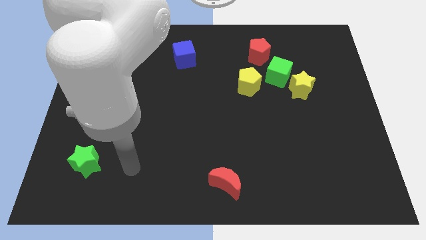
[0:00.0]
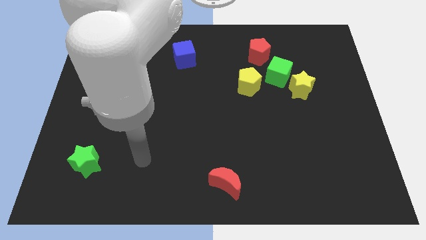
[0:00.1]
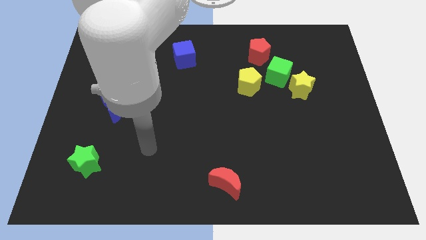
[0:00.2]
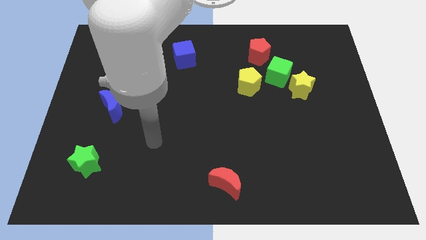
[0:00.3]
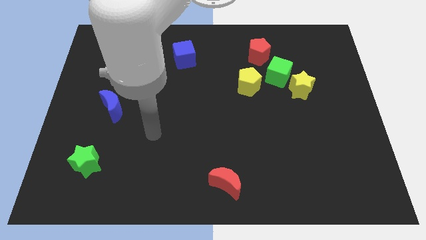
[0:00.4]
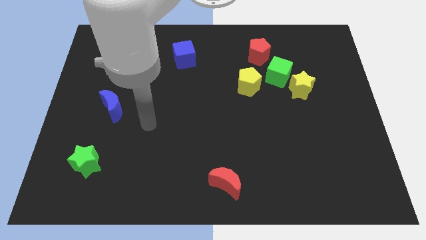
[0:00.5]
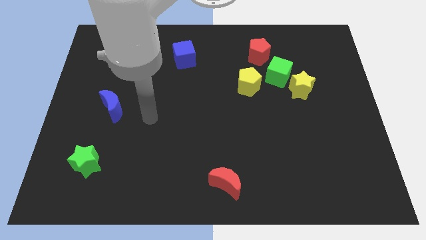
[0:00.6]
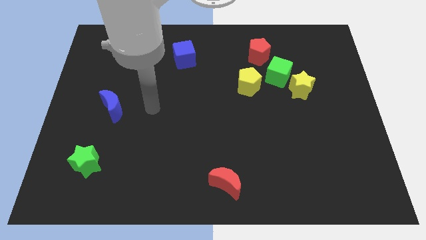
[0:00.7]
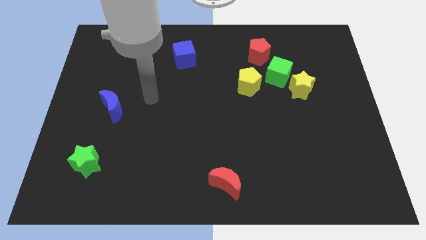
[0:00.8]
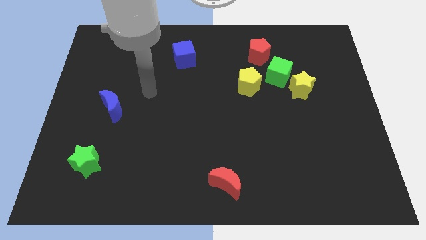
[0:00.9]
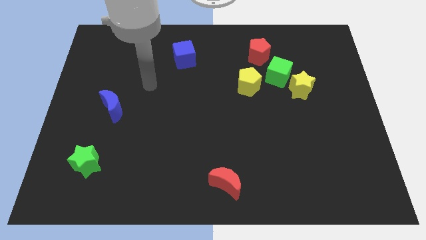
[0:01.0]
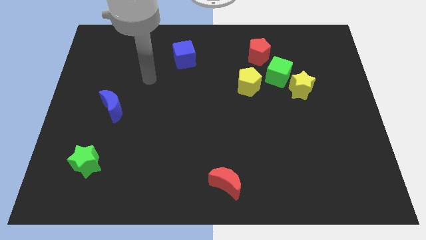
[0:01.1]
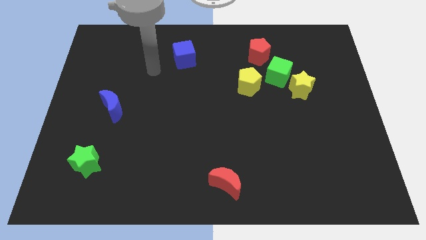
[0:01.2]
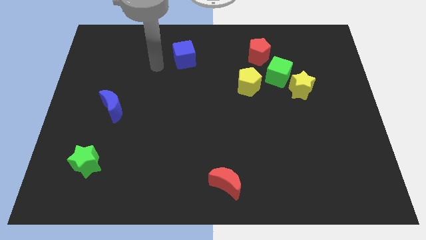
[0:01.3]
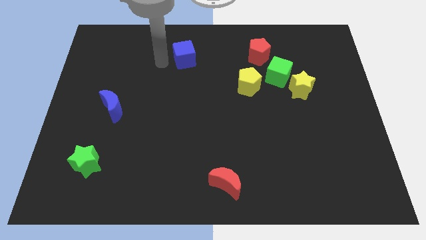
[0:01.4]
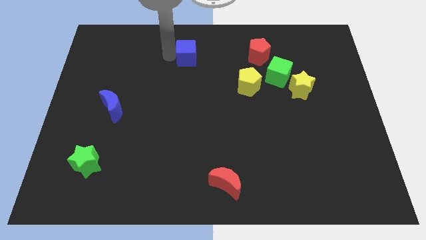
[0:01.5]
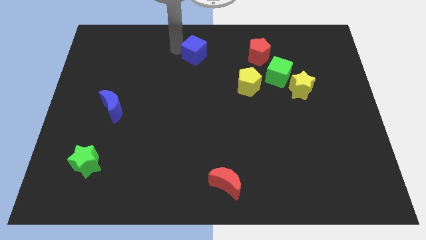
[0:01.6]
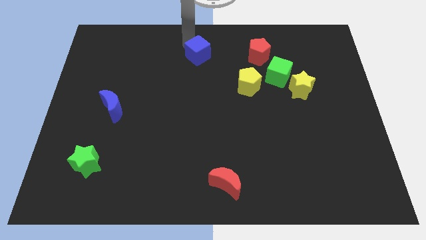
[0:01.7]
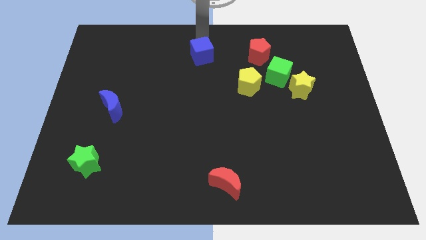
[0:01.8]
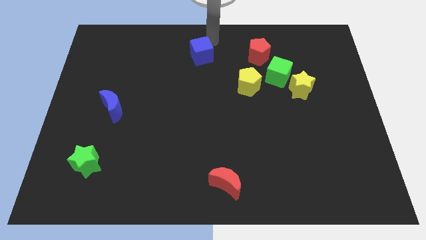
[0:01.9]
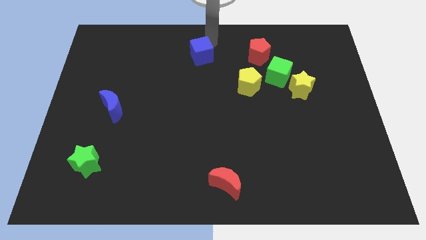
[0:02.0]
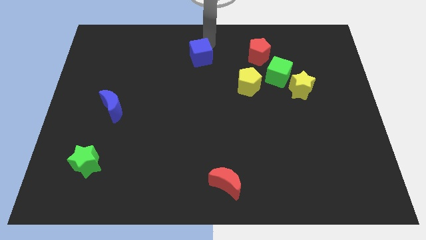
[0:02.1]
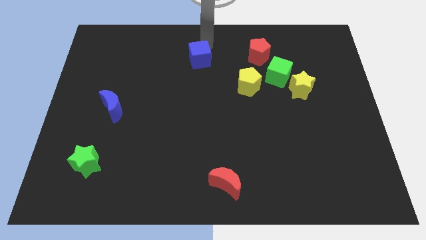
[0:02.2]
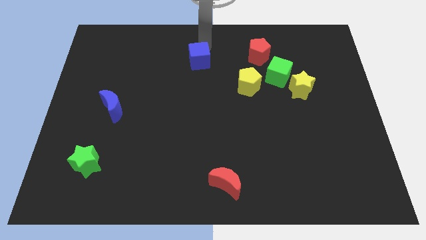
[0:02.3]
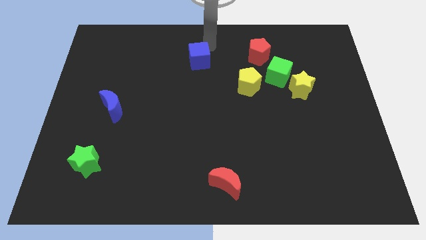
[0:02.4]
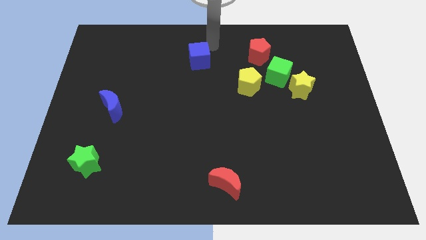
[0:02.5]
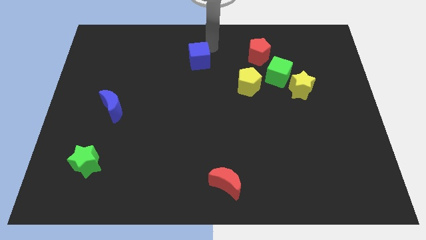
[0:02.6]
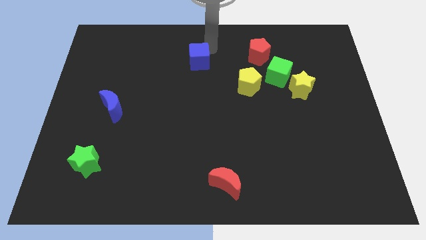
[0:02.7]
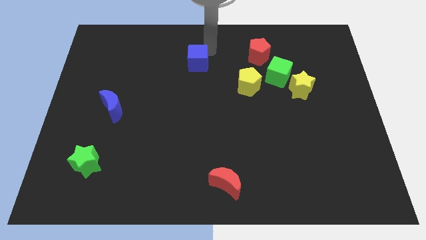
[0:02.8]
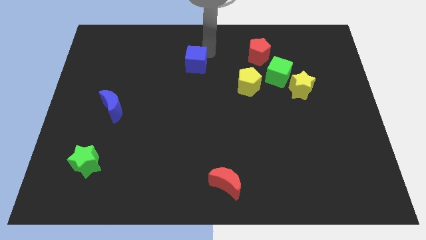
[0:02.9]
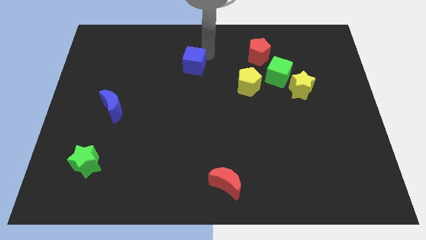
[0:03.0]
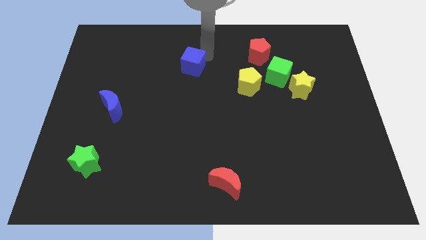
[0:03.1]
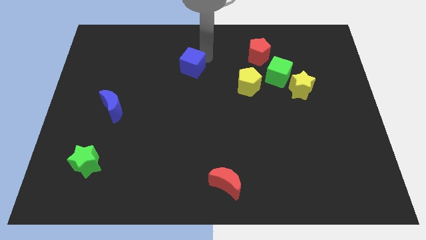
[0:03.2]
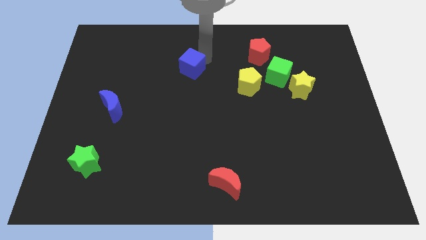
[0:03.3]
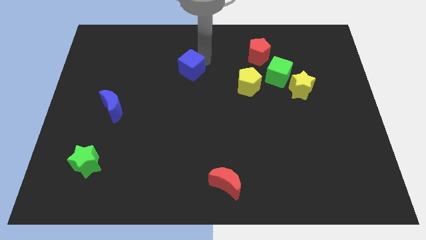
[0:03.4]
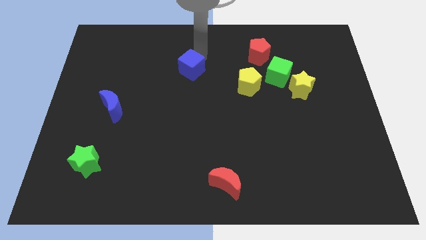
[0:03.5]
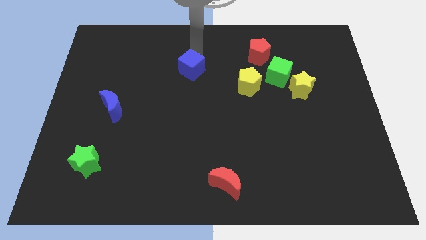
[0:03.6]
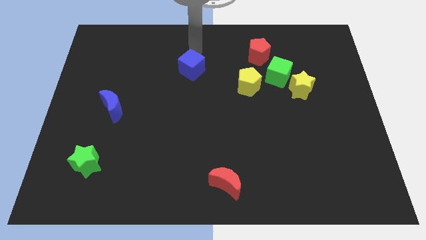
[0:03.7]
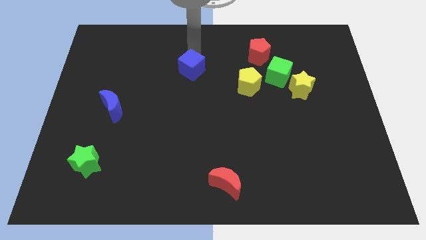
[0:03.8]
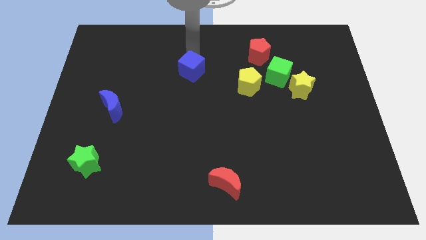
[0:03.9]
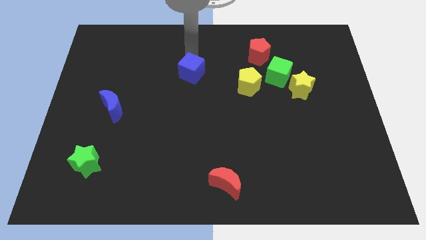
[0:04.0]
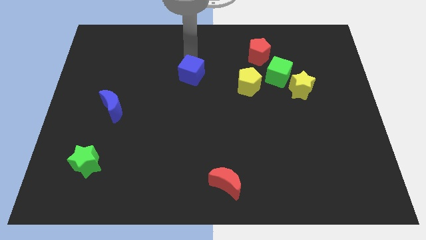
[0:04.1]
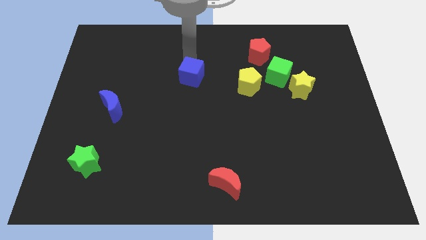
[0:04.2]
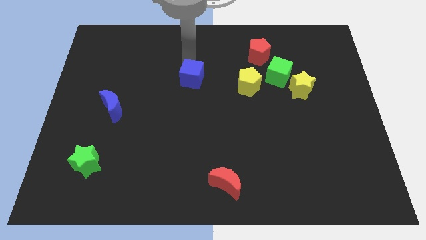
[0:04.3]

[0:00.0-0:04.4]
move the blue cube downwards a bit

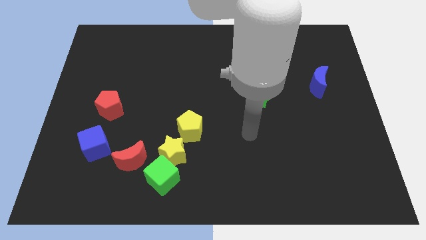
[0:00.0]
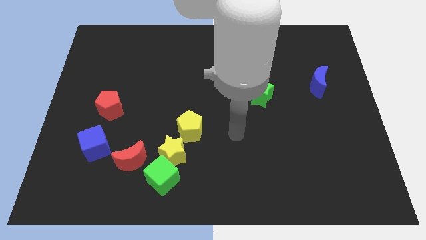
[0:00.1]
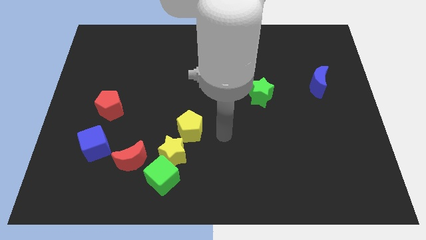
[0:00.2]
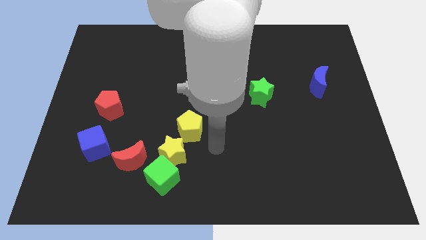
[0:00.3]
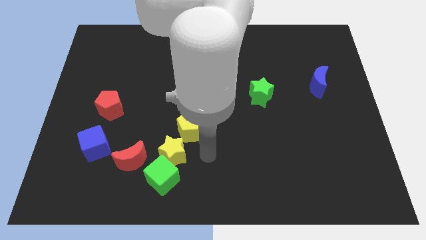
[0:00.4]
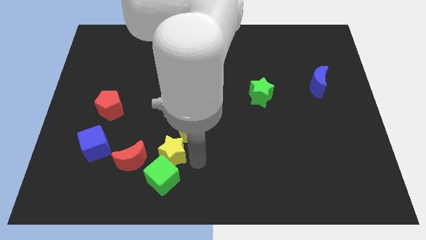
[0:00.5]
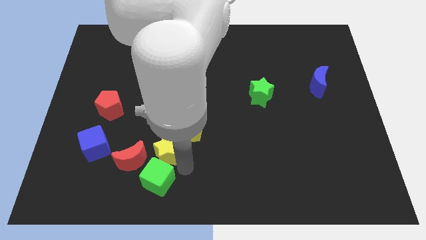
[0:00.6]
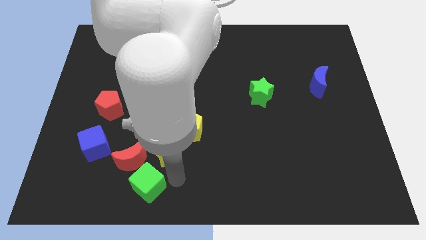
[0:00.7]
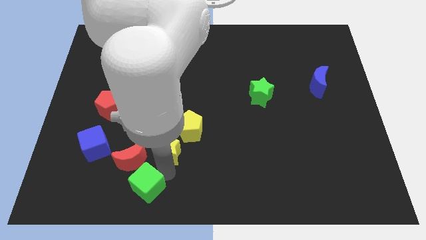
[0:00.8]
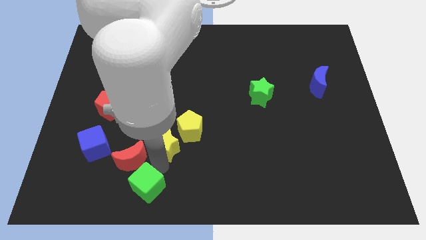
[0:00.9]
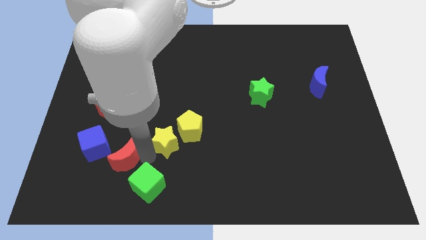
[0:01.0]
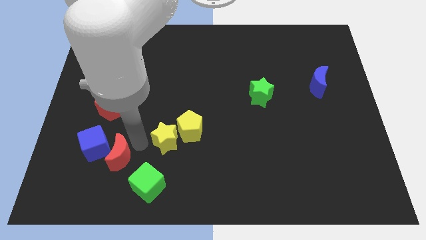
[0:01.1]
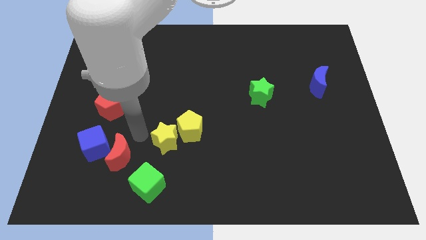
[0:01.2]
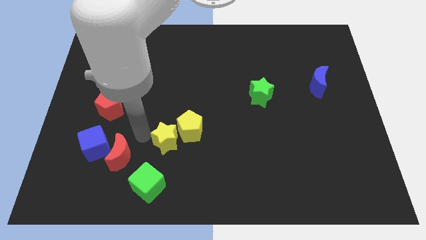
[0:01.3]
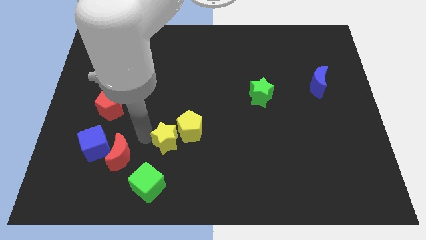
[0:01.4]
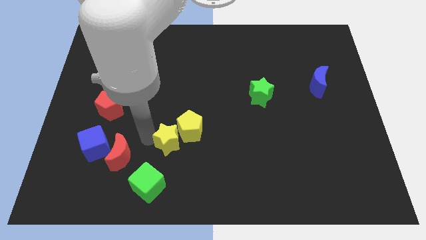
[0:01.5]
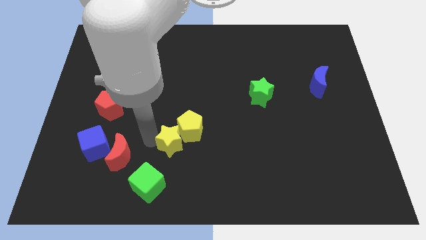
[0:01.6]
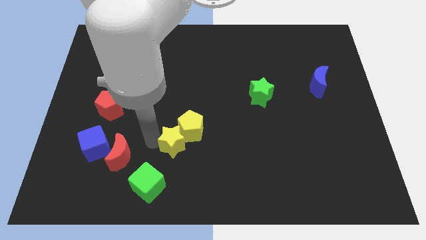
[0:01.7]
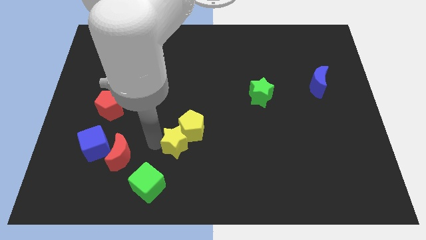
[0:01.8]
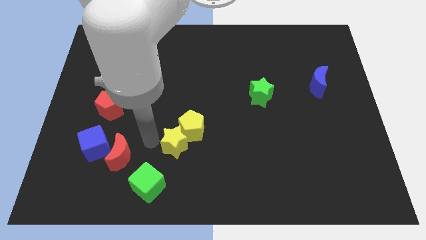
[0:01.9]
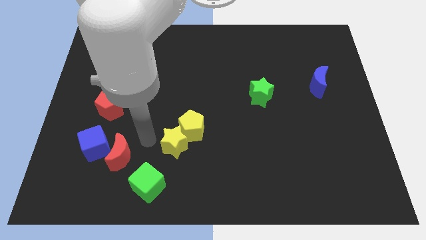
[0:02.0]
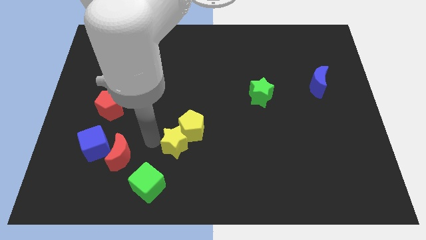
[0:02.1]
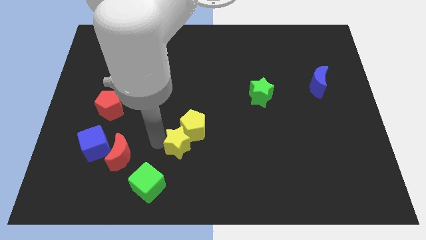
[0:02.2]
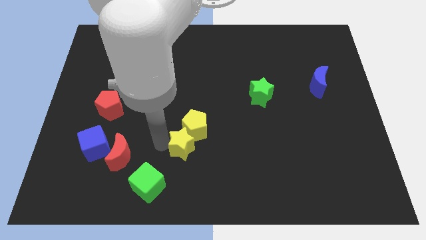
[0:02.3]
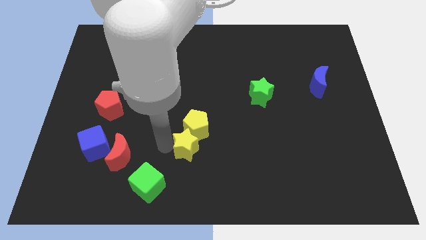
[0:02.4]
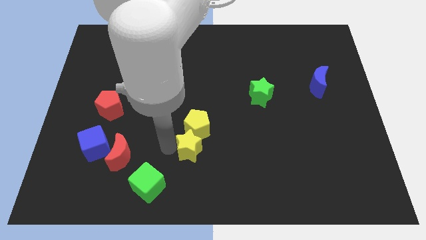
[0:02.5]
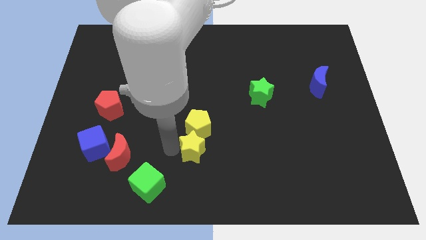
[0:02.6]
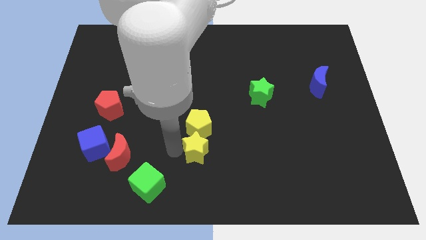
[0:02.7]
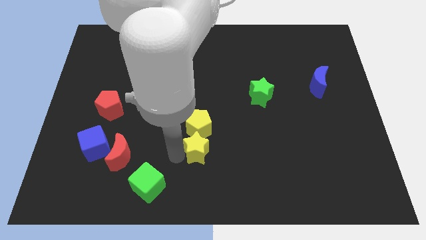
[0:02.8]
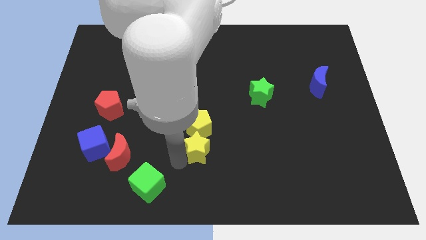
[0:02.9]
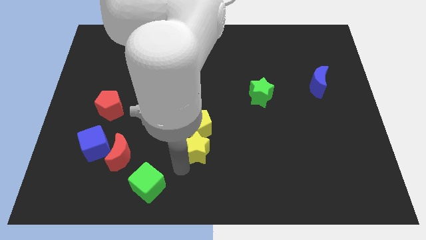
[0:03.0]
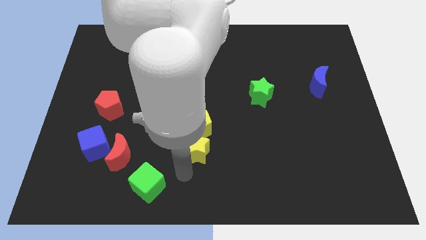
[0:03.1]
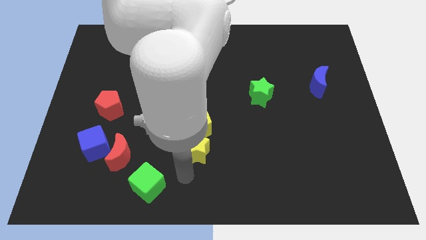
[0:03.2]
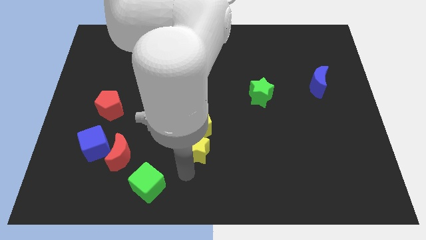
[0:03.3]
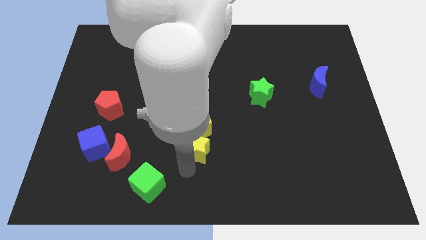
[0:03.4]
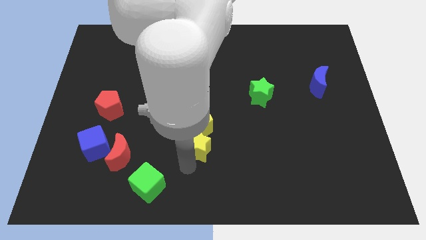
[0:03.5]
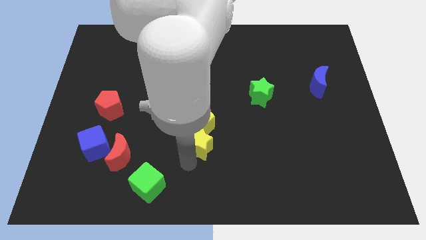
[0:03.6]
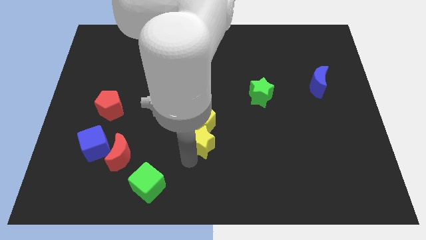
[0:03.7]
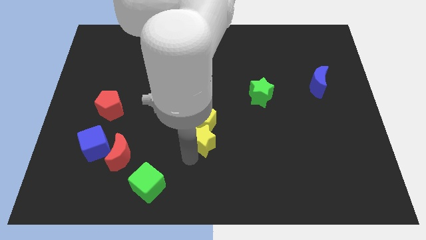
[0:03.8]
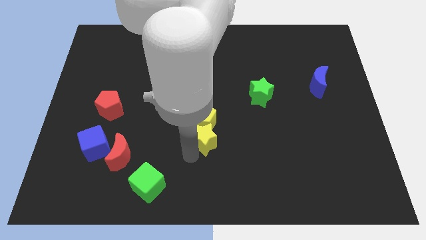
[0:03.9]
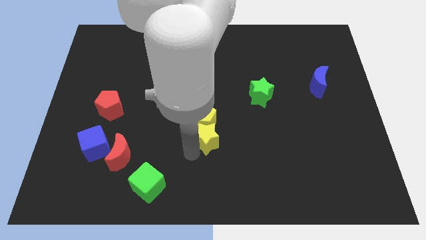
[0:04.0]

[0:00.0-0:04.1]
move the yellow star a little bit upwards and then to the right
